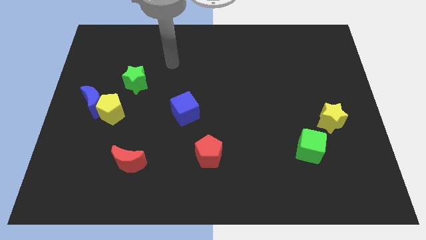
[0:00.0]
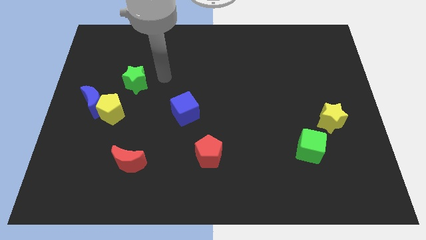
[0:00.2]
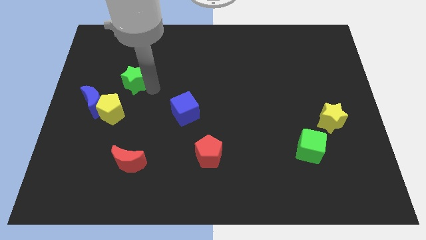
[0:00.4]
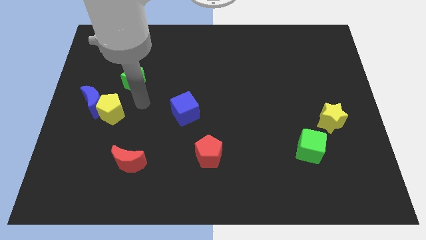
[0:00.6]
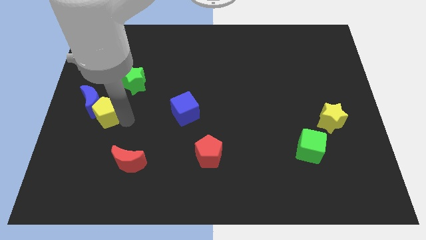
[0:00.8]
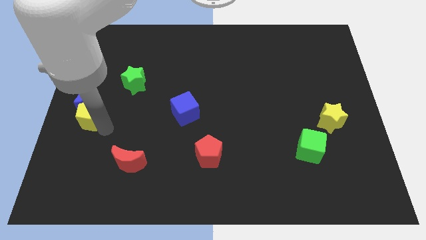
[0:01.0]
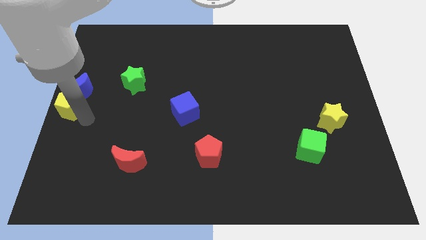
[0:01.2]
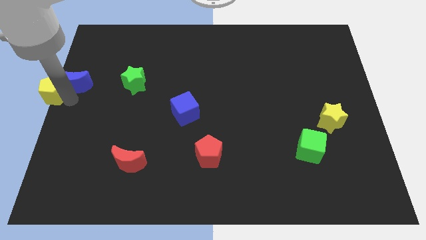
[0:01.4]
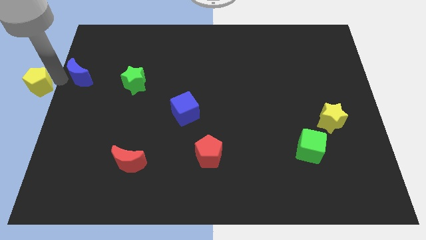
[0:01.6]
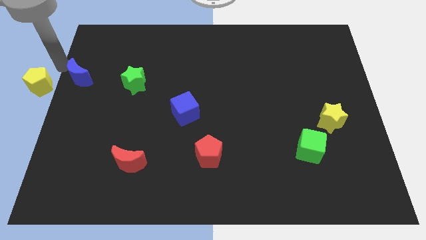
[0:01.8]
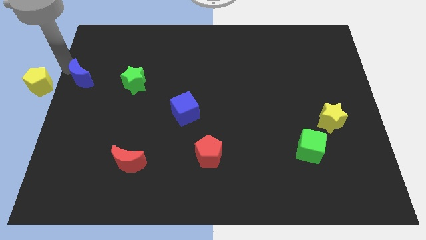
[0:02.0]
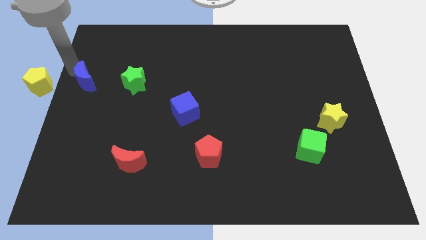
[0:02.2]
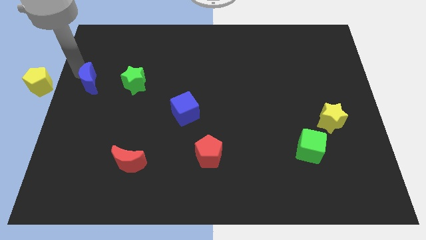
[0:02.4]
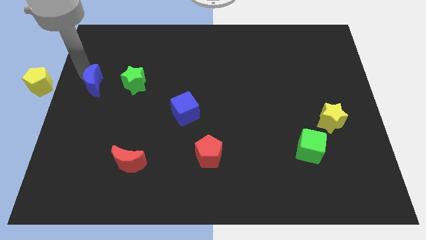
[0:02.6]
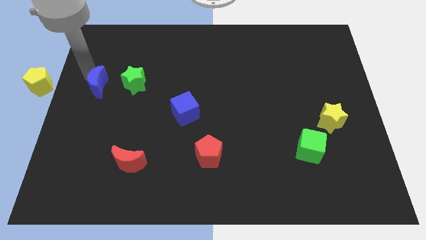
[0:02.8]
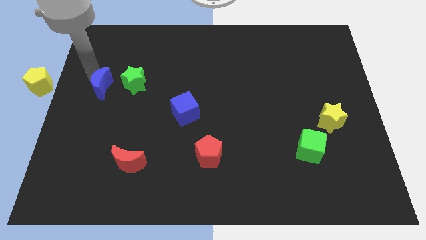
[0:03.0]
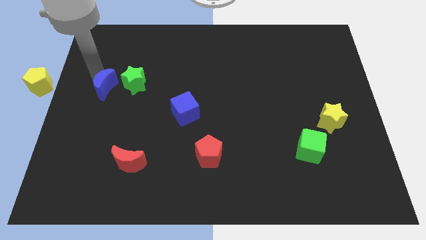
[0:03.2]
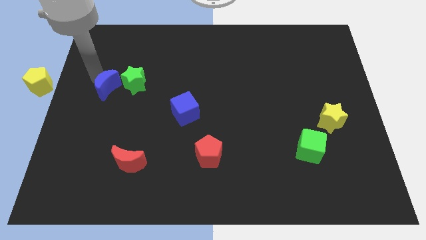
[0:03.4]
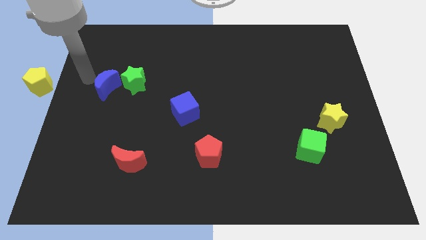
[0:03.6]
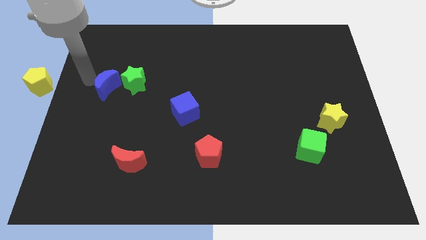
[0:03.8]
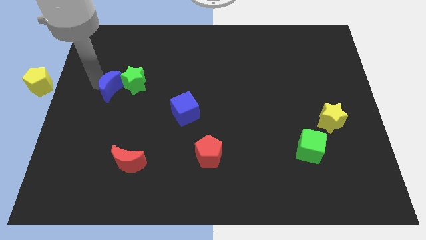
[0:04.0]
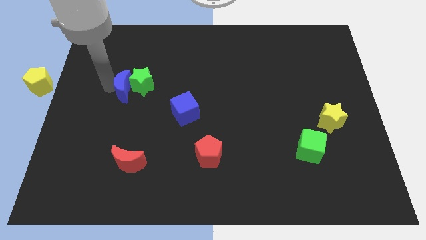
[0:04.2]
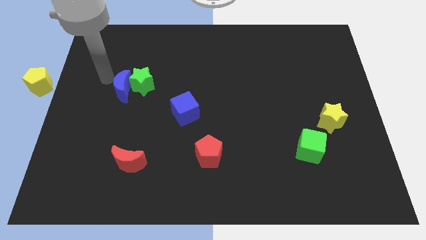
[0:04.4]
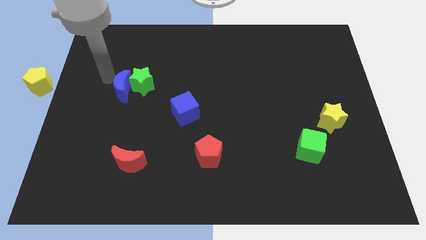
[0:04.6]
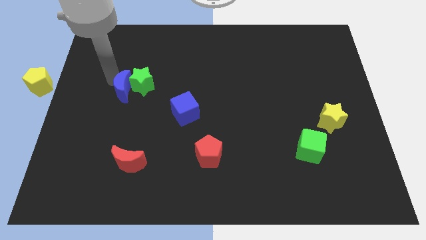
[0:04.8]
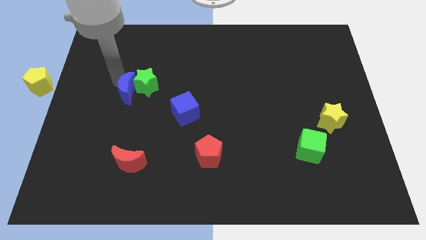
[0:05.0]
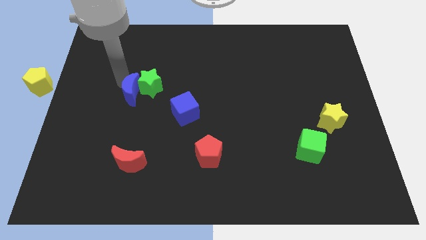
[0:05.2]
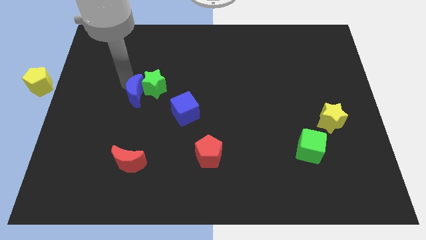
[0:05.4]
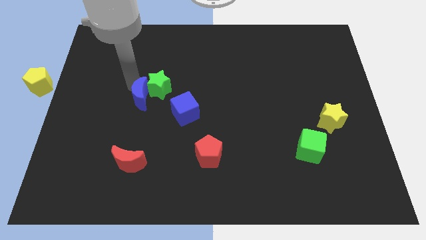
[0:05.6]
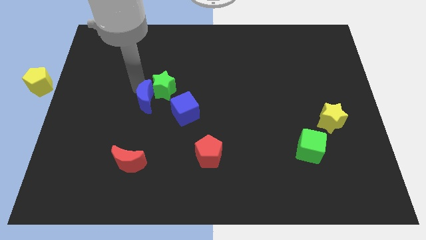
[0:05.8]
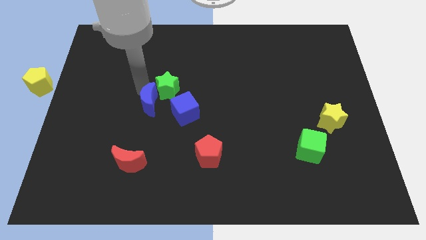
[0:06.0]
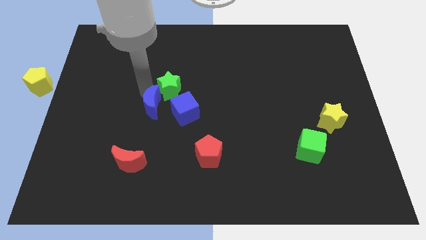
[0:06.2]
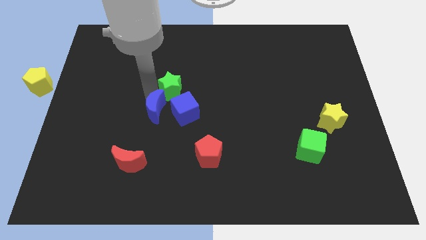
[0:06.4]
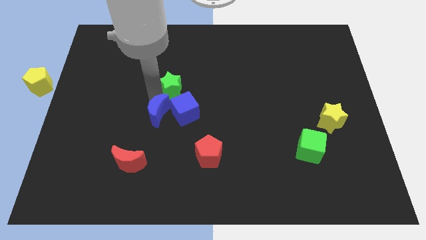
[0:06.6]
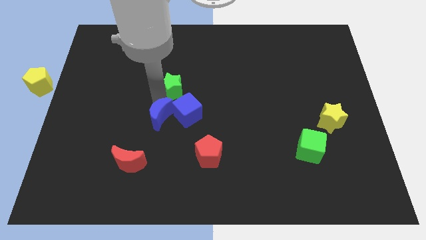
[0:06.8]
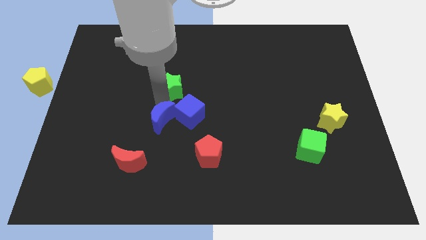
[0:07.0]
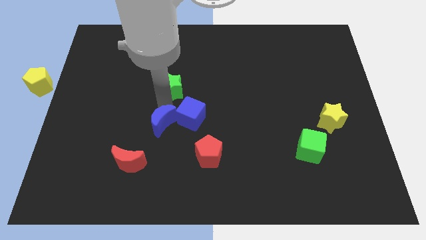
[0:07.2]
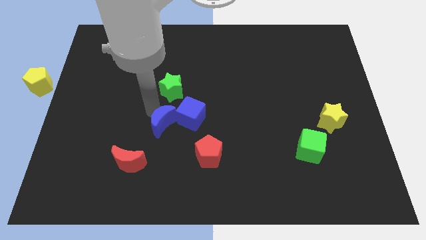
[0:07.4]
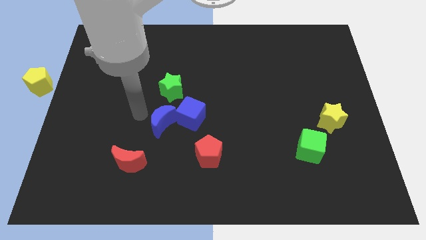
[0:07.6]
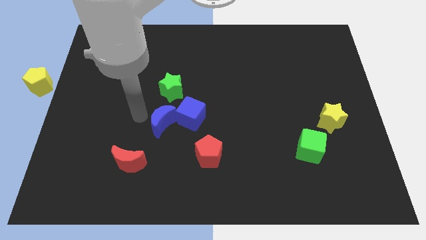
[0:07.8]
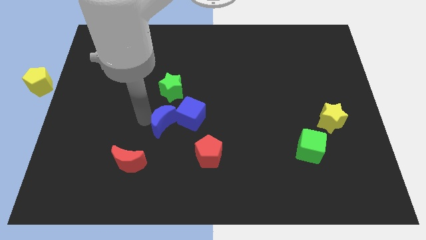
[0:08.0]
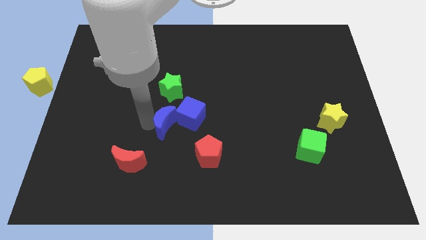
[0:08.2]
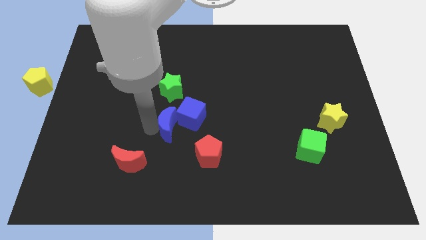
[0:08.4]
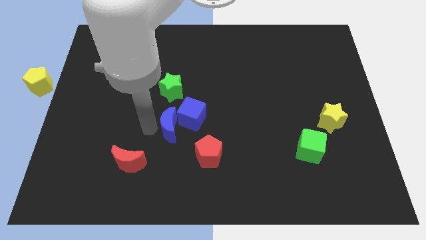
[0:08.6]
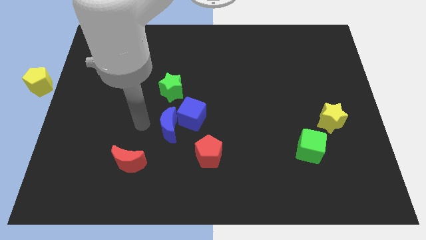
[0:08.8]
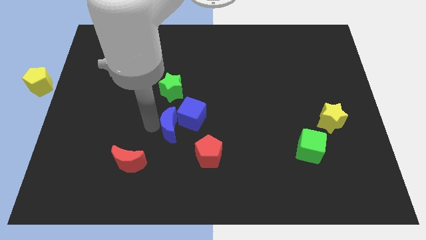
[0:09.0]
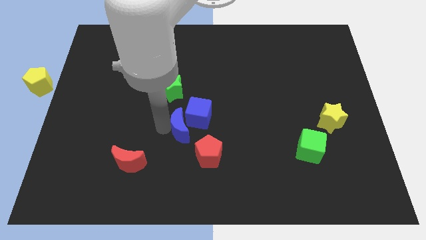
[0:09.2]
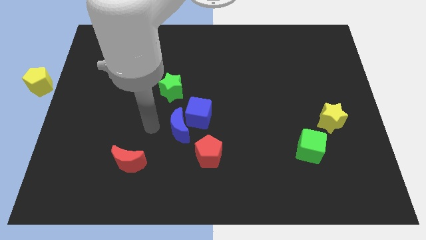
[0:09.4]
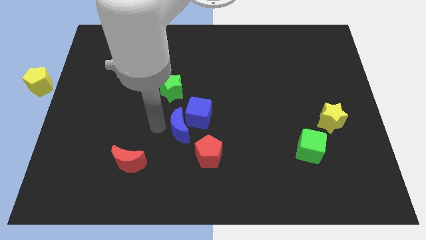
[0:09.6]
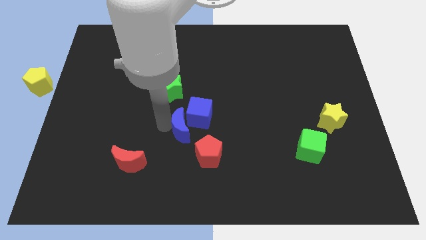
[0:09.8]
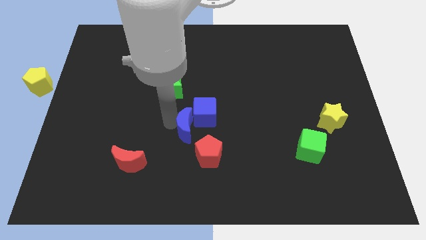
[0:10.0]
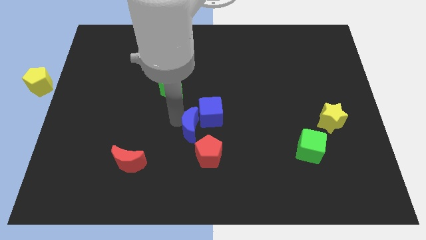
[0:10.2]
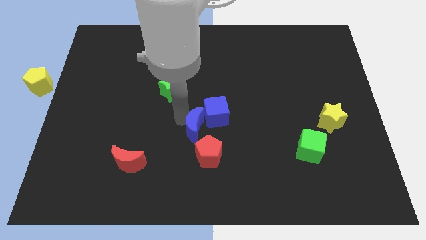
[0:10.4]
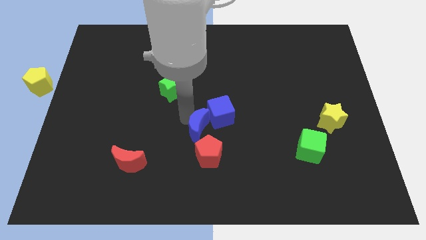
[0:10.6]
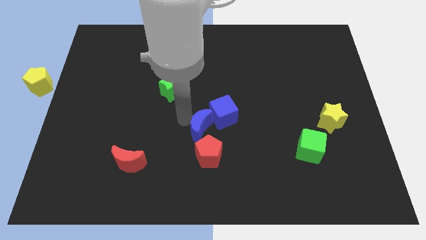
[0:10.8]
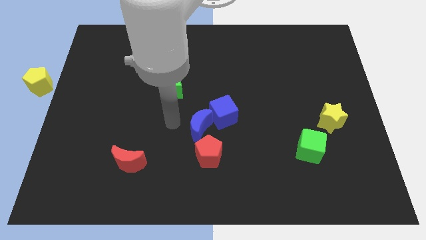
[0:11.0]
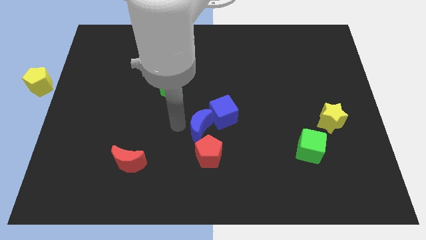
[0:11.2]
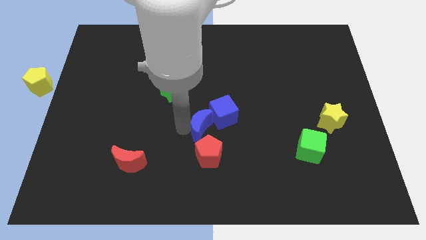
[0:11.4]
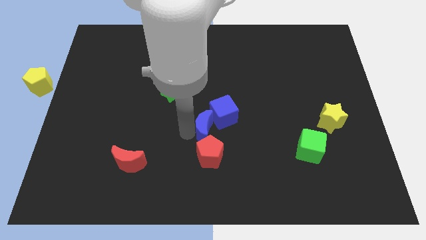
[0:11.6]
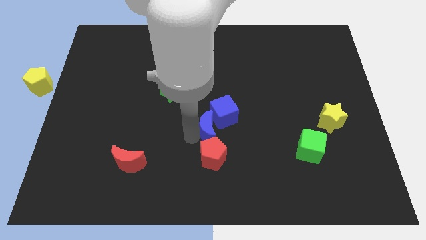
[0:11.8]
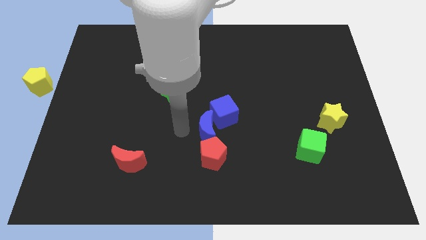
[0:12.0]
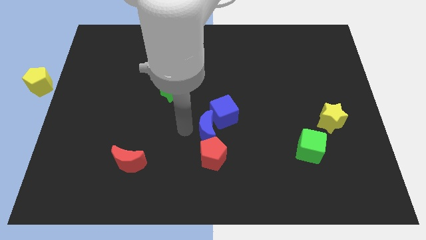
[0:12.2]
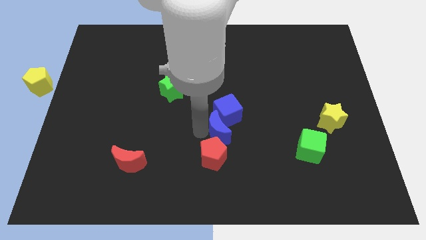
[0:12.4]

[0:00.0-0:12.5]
push the blue moon to the top right side of the red pentagon
